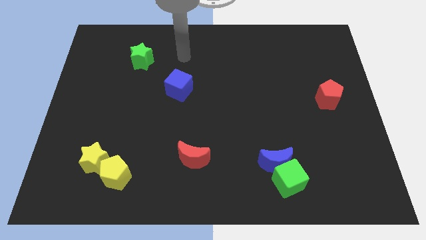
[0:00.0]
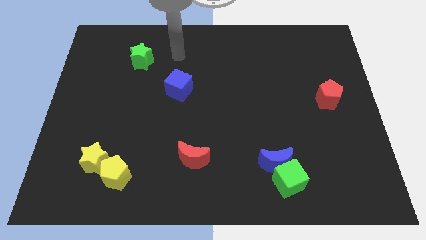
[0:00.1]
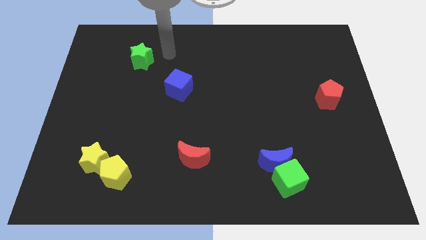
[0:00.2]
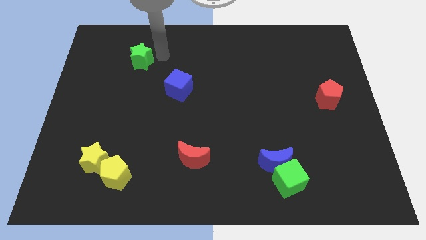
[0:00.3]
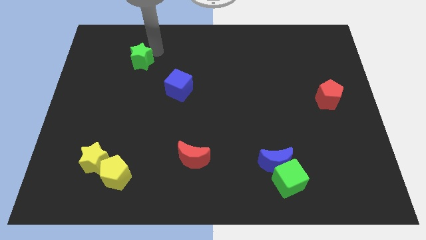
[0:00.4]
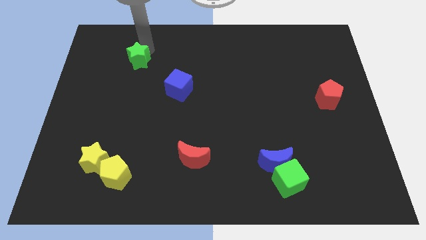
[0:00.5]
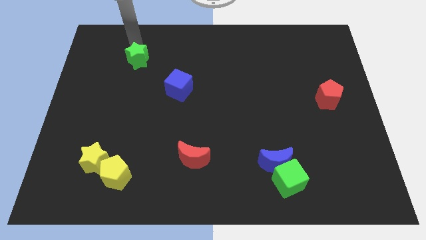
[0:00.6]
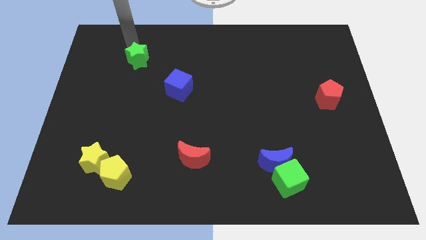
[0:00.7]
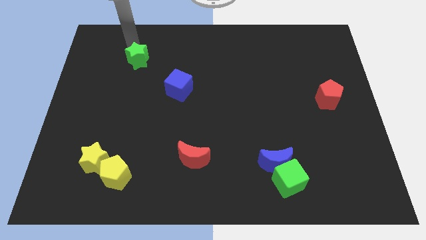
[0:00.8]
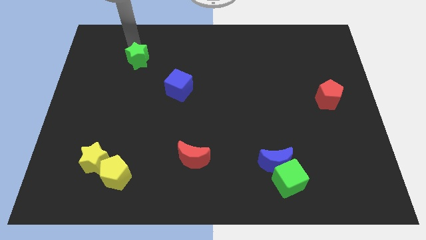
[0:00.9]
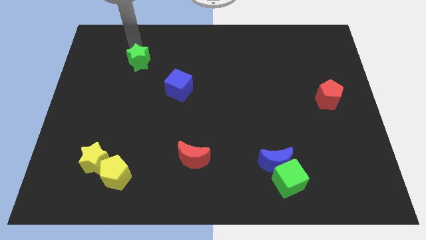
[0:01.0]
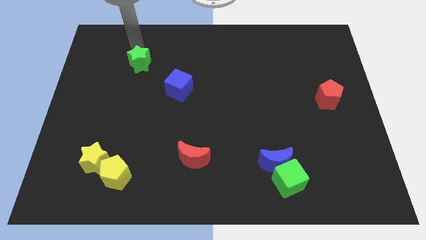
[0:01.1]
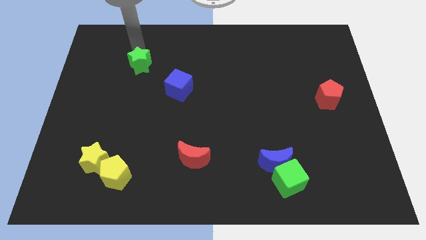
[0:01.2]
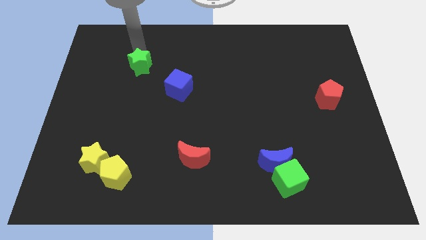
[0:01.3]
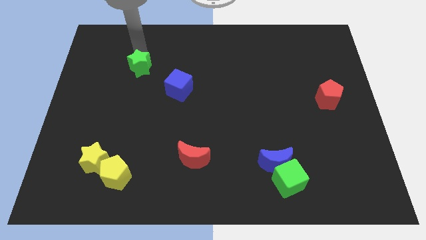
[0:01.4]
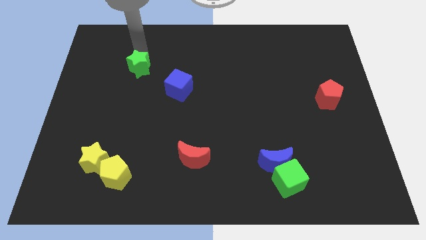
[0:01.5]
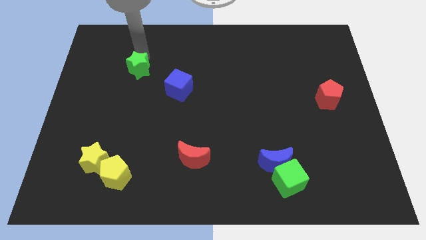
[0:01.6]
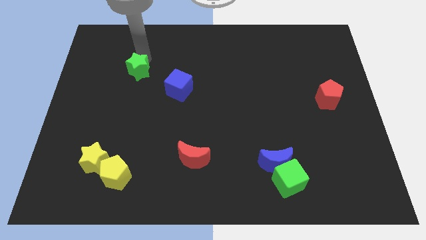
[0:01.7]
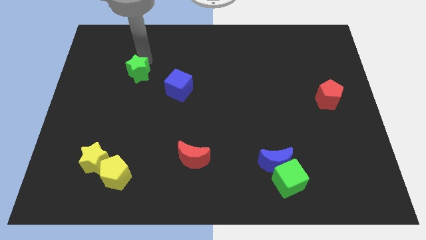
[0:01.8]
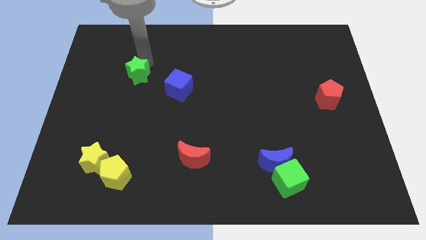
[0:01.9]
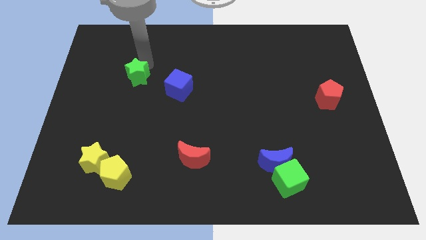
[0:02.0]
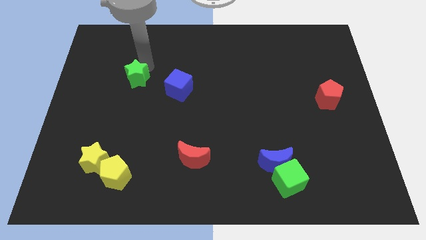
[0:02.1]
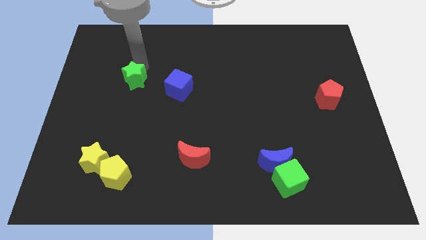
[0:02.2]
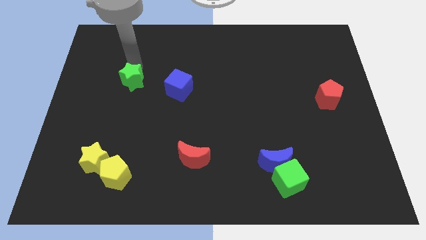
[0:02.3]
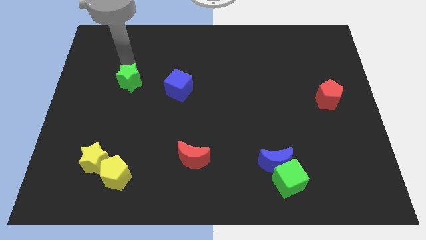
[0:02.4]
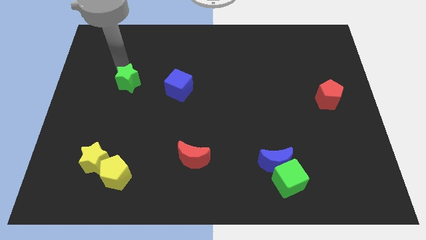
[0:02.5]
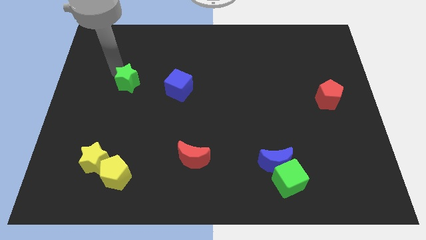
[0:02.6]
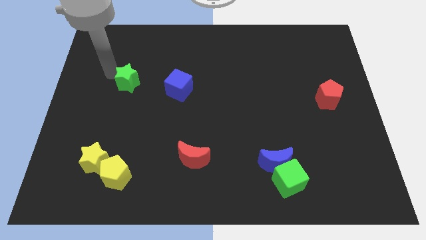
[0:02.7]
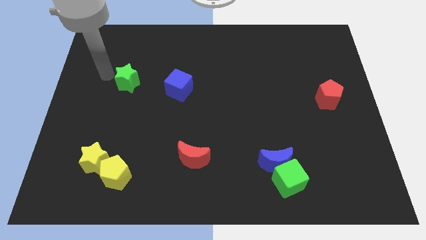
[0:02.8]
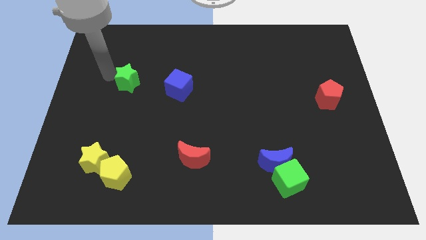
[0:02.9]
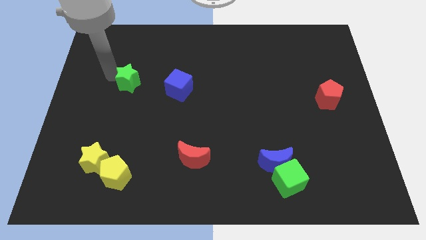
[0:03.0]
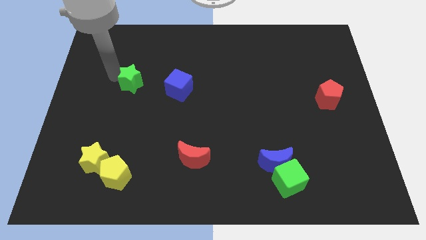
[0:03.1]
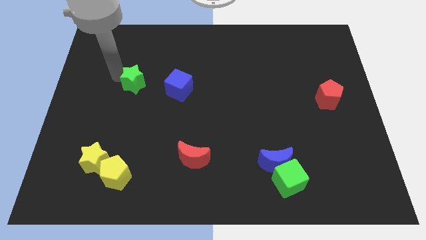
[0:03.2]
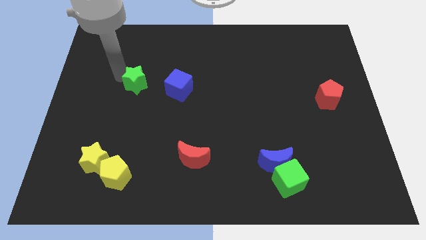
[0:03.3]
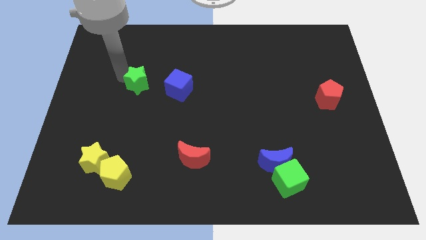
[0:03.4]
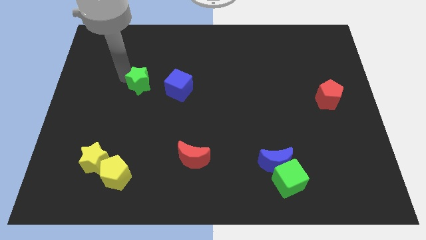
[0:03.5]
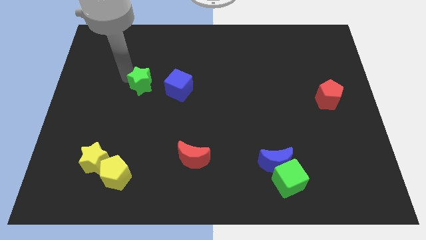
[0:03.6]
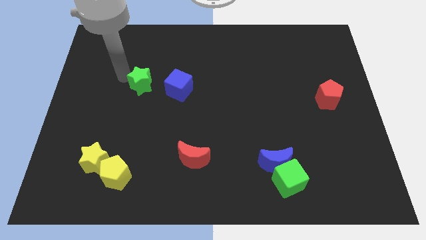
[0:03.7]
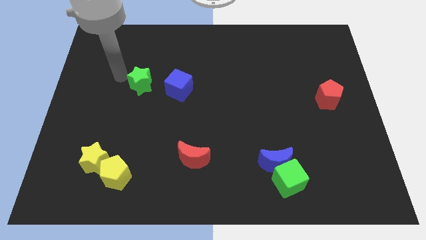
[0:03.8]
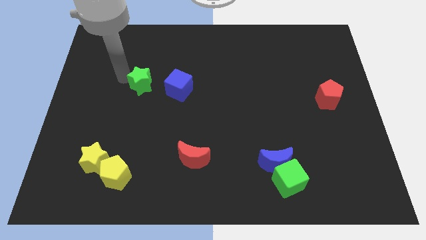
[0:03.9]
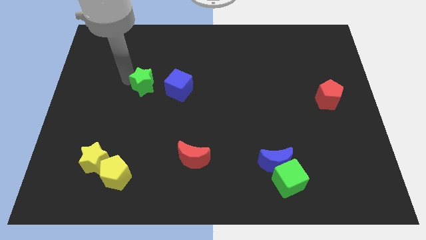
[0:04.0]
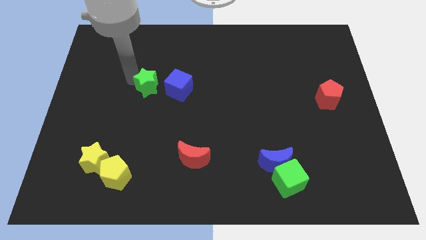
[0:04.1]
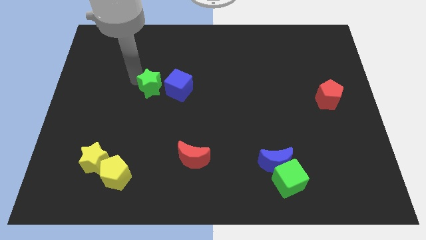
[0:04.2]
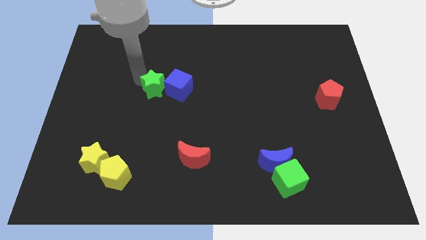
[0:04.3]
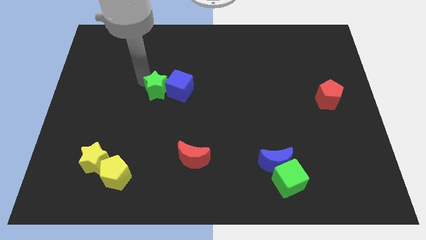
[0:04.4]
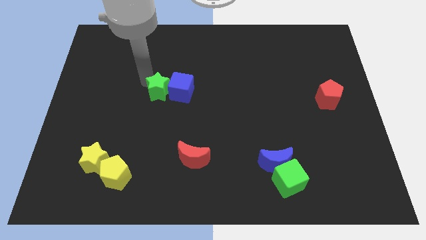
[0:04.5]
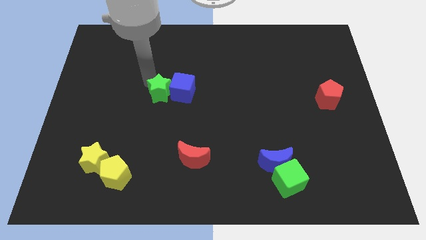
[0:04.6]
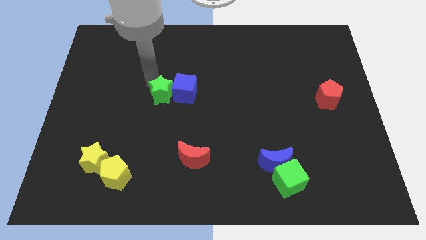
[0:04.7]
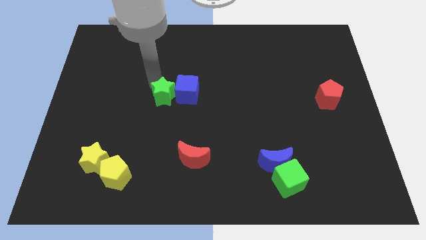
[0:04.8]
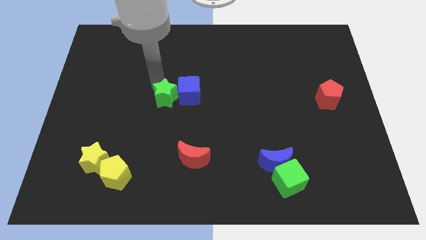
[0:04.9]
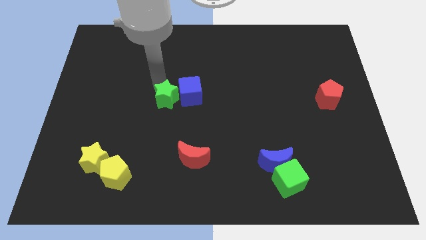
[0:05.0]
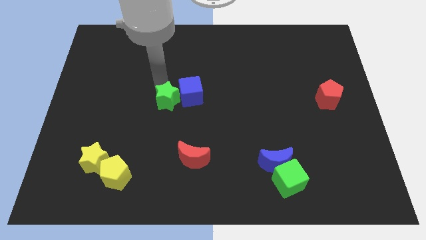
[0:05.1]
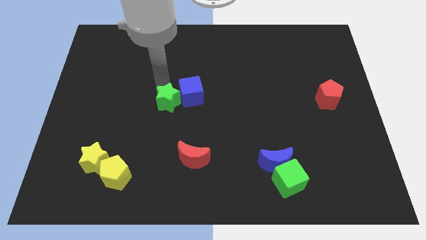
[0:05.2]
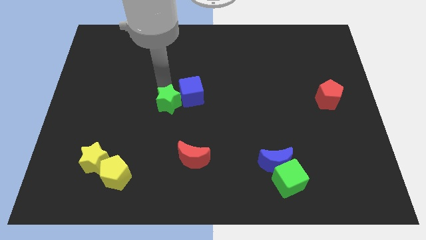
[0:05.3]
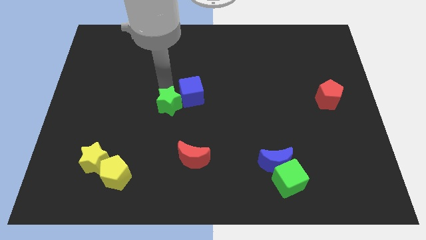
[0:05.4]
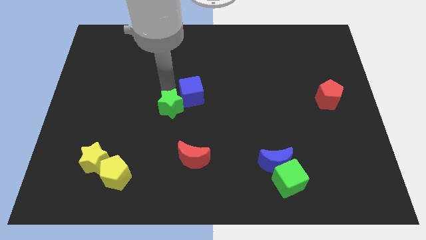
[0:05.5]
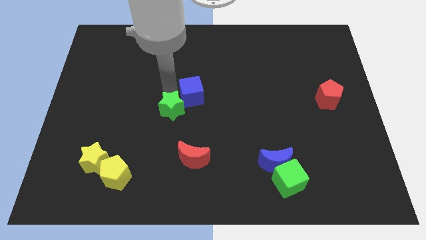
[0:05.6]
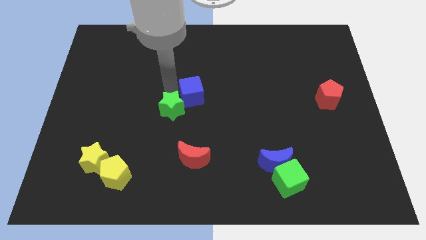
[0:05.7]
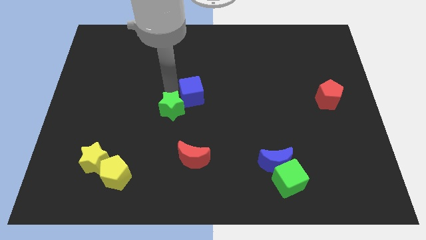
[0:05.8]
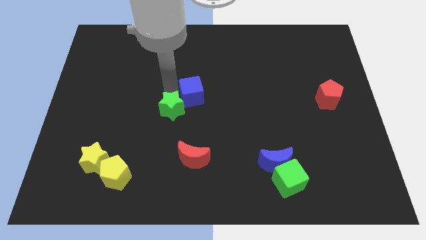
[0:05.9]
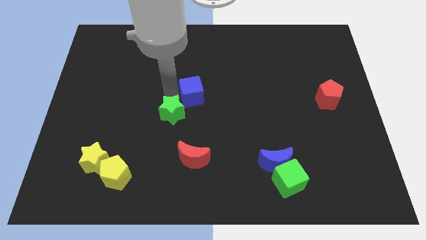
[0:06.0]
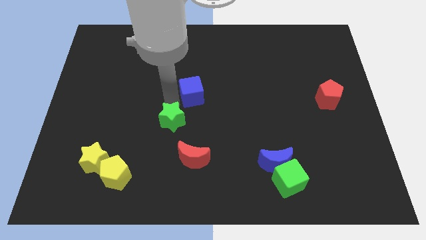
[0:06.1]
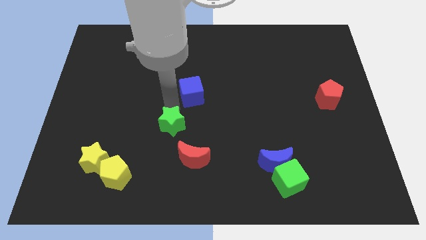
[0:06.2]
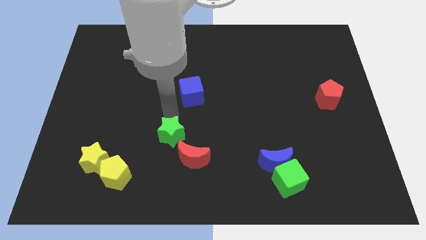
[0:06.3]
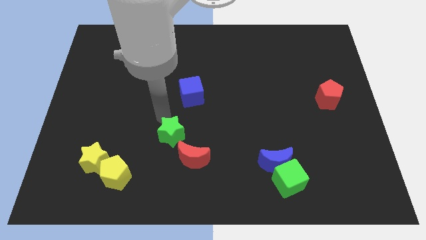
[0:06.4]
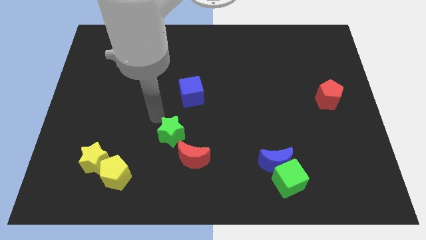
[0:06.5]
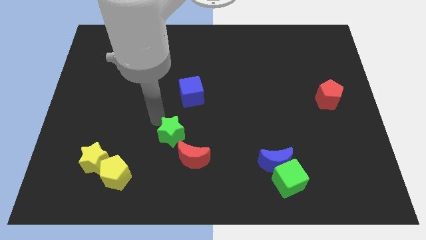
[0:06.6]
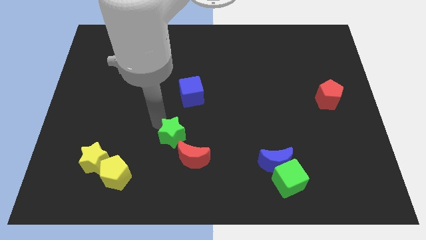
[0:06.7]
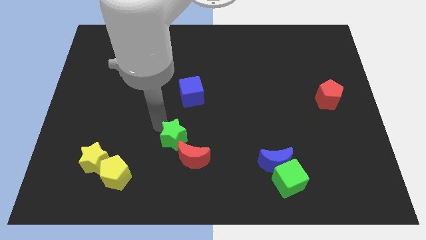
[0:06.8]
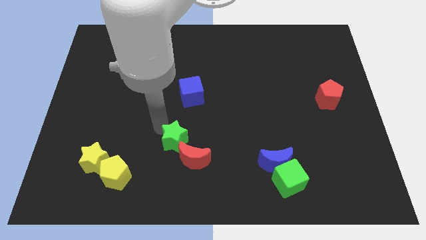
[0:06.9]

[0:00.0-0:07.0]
slide the green star close to the red moon
